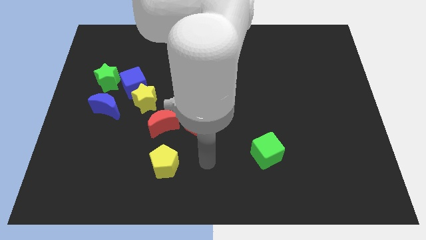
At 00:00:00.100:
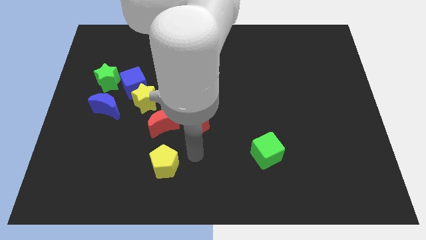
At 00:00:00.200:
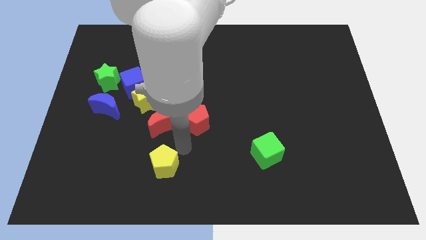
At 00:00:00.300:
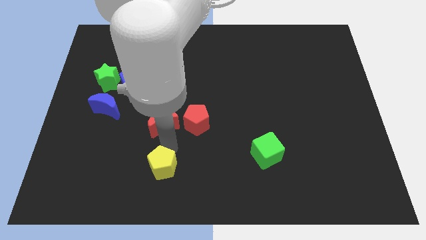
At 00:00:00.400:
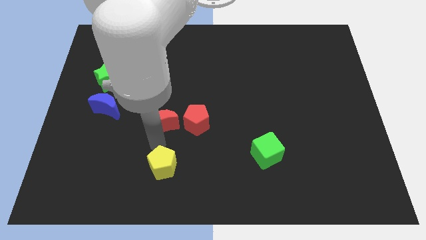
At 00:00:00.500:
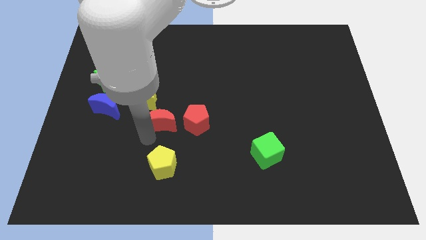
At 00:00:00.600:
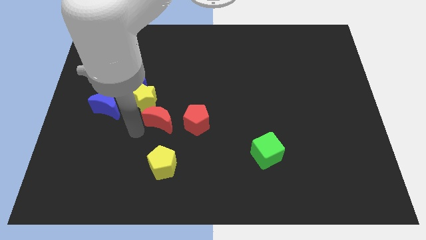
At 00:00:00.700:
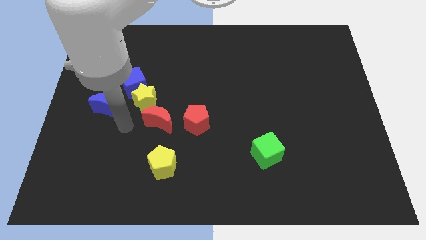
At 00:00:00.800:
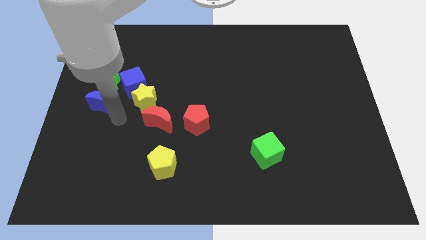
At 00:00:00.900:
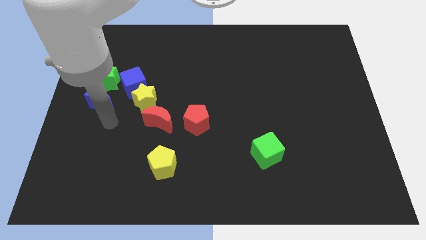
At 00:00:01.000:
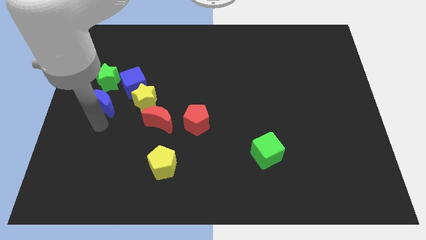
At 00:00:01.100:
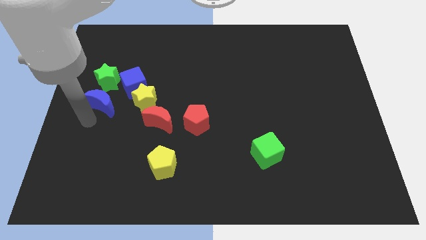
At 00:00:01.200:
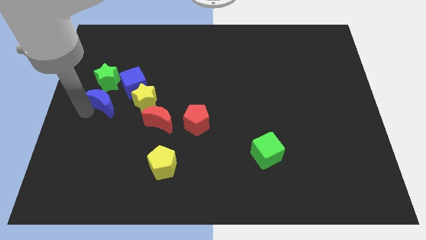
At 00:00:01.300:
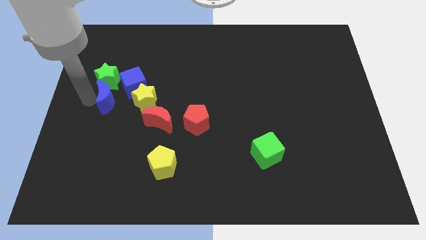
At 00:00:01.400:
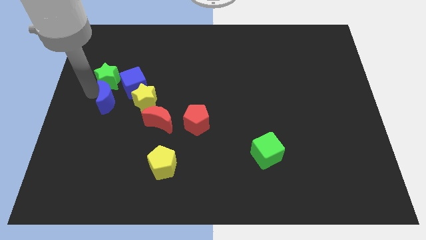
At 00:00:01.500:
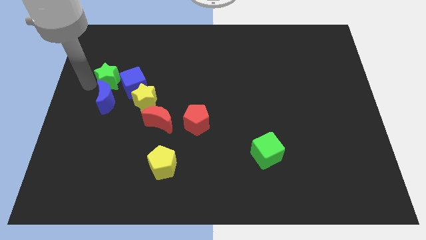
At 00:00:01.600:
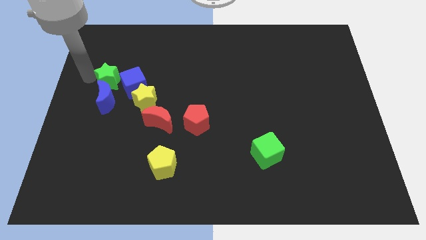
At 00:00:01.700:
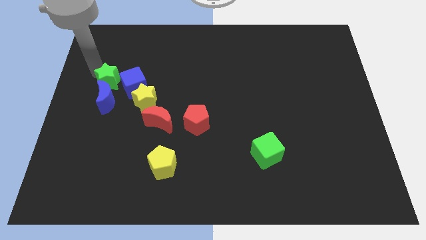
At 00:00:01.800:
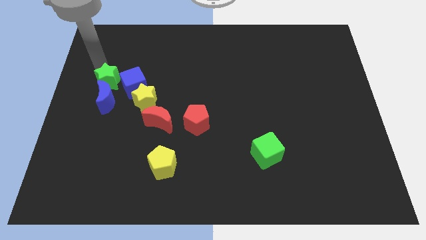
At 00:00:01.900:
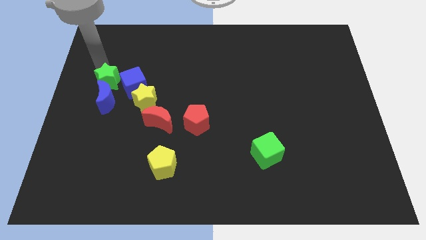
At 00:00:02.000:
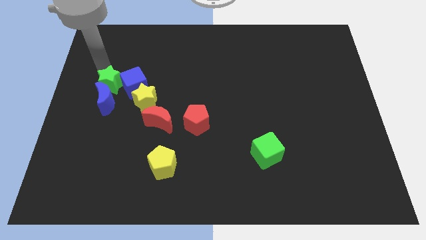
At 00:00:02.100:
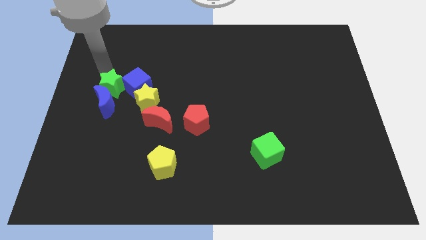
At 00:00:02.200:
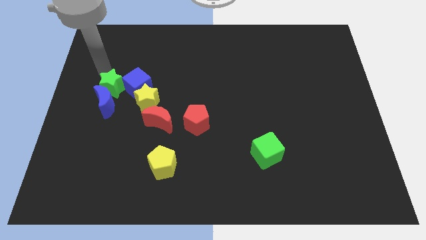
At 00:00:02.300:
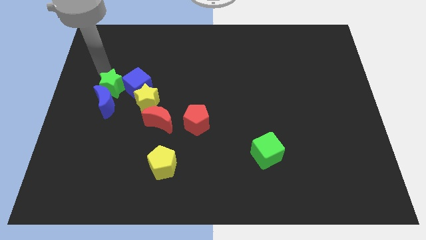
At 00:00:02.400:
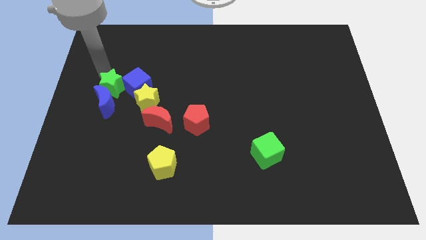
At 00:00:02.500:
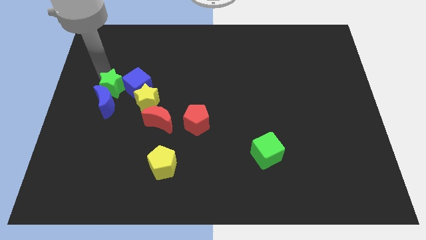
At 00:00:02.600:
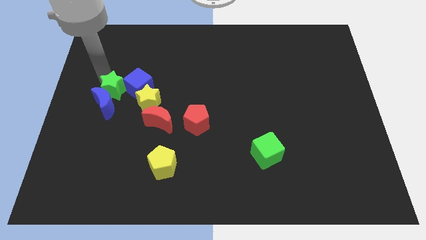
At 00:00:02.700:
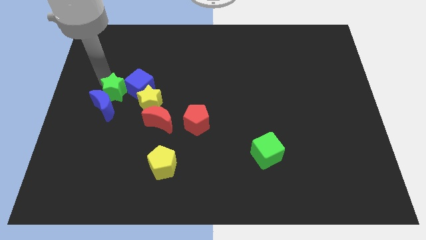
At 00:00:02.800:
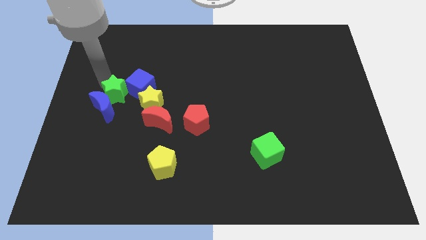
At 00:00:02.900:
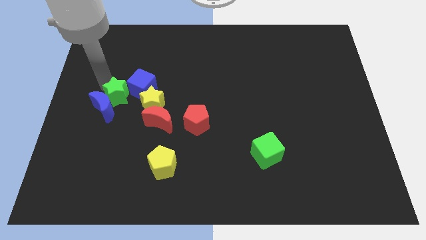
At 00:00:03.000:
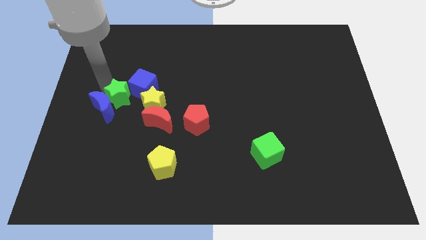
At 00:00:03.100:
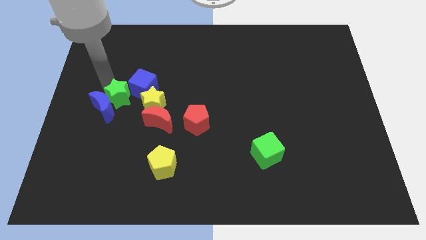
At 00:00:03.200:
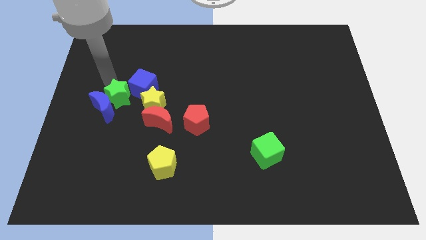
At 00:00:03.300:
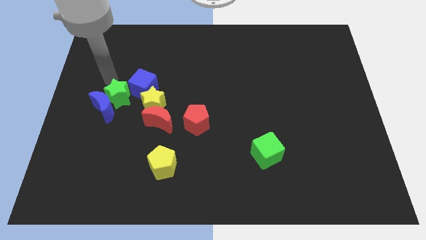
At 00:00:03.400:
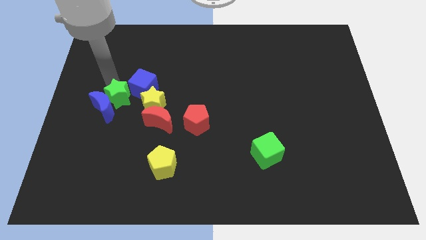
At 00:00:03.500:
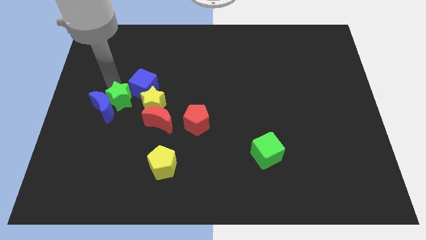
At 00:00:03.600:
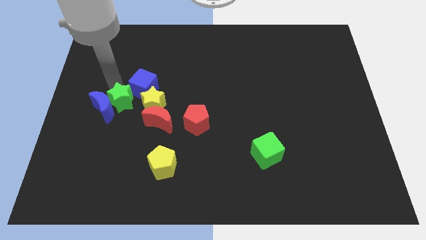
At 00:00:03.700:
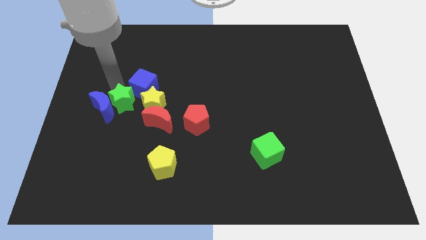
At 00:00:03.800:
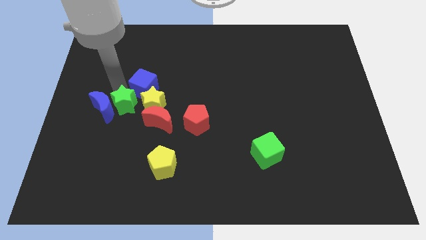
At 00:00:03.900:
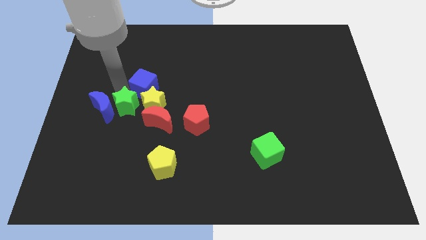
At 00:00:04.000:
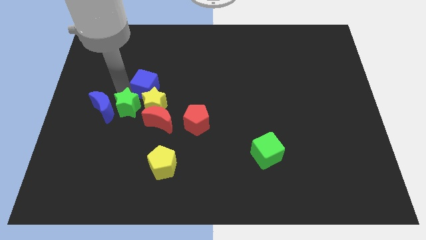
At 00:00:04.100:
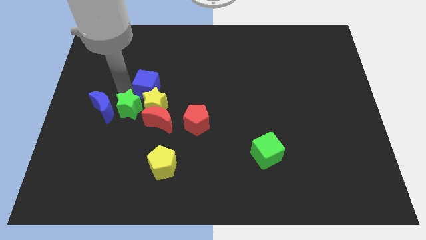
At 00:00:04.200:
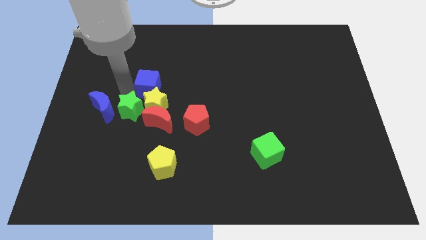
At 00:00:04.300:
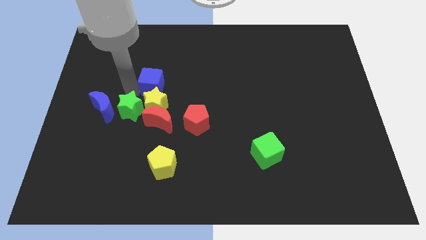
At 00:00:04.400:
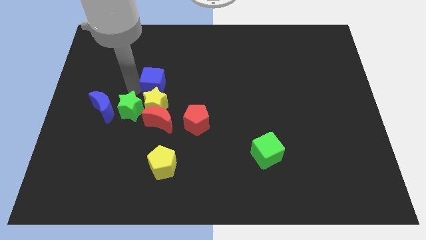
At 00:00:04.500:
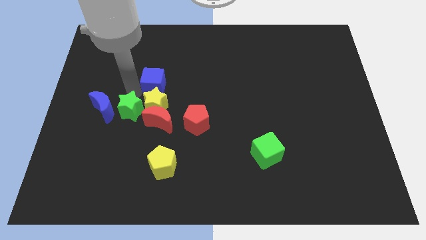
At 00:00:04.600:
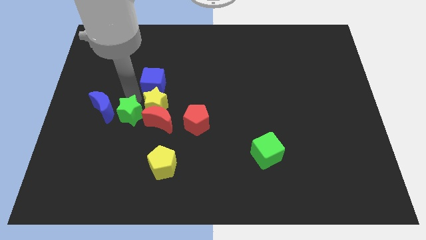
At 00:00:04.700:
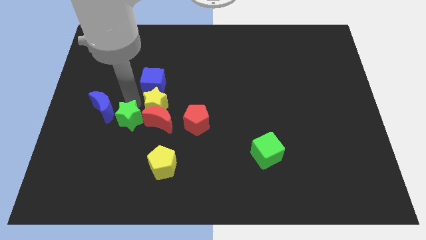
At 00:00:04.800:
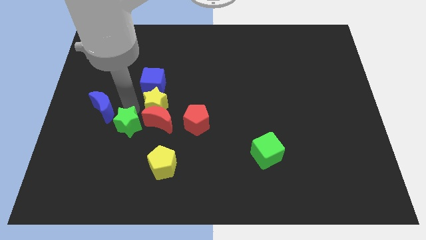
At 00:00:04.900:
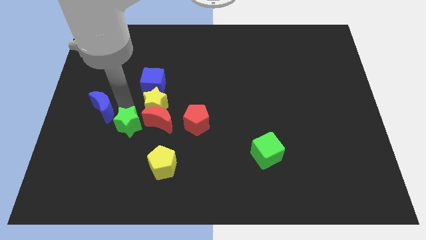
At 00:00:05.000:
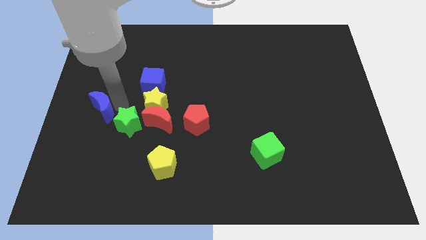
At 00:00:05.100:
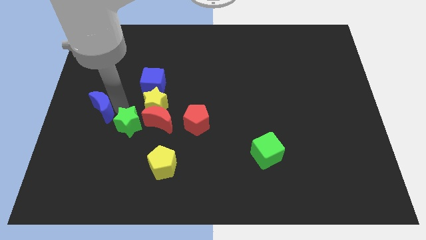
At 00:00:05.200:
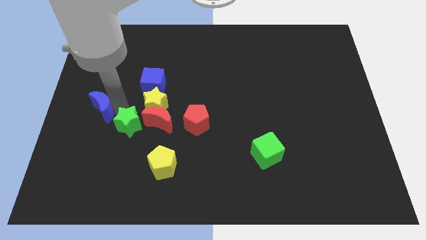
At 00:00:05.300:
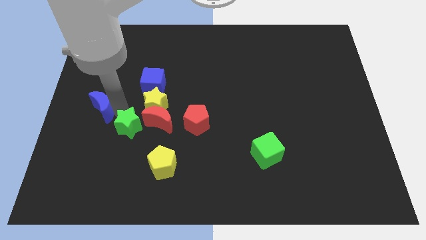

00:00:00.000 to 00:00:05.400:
slide the green star to the top left of the yellow pentagon

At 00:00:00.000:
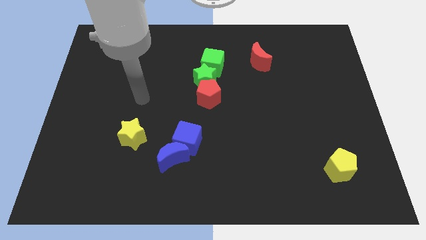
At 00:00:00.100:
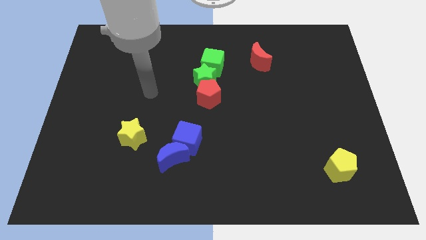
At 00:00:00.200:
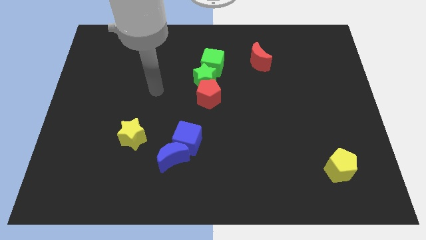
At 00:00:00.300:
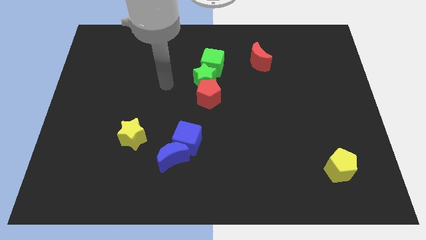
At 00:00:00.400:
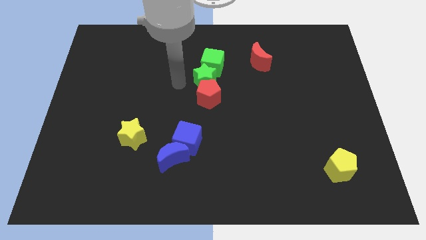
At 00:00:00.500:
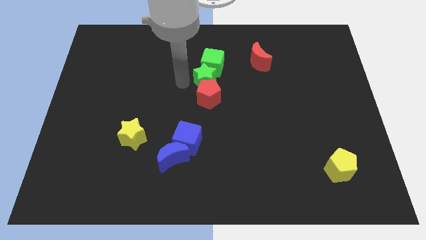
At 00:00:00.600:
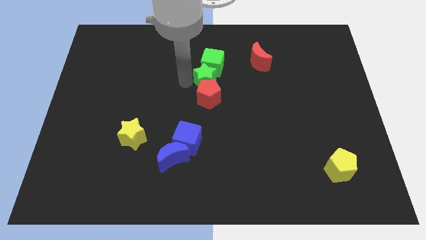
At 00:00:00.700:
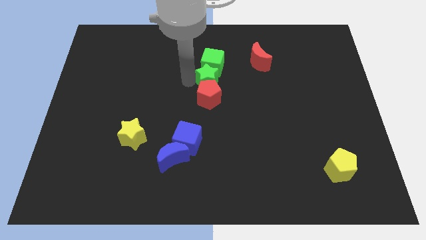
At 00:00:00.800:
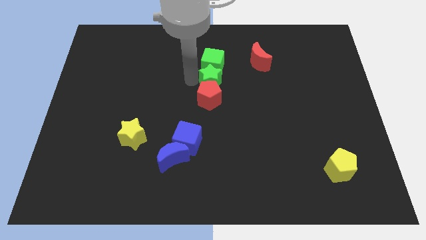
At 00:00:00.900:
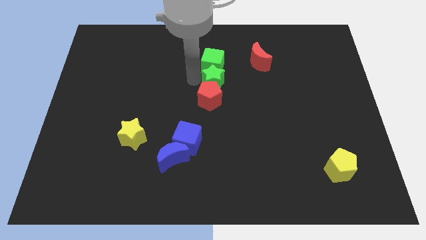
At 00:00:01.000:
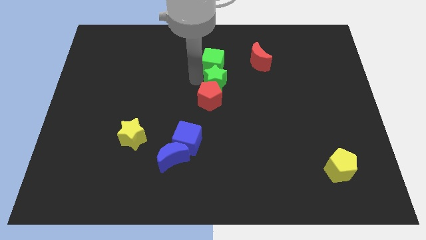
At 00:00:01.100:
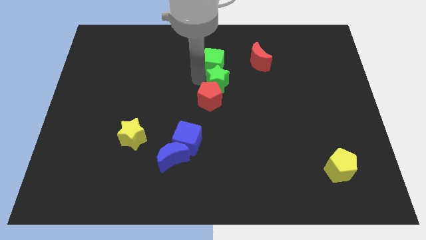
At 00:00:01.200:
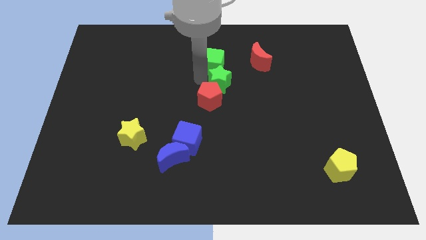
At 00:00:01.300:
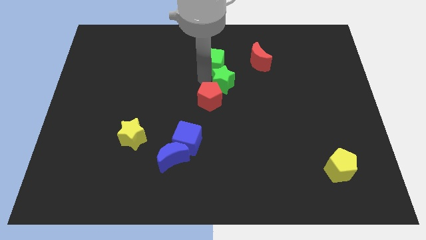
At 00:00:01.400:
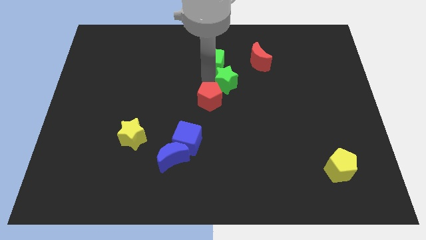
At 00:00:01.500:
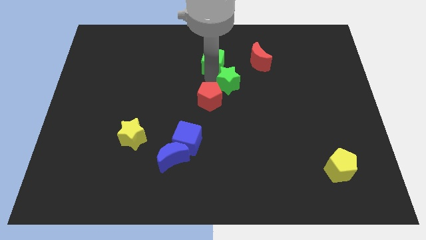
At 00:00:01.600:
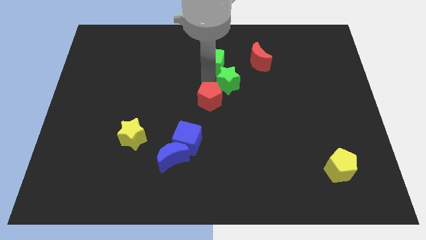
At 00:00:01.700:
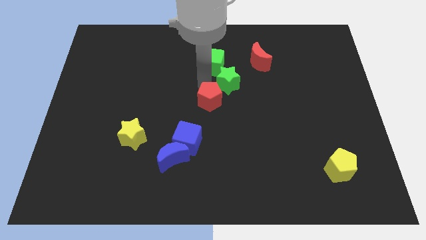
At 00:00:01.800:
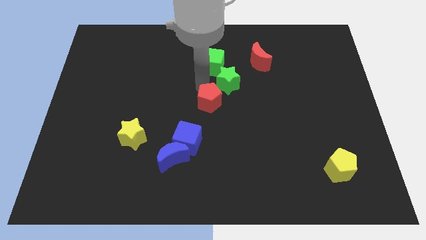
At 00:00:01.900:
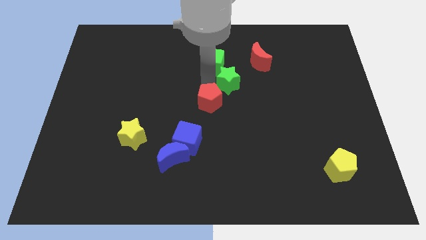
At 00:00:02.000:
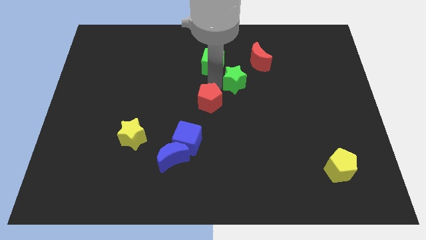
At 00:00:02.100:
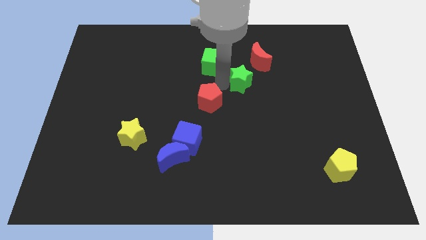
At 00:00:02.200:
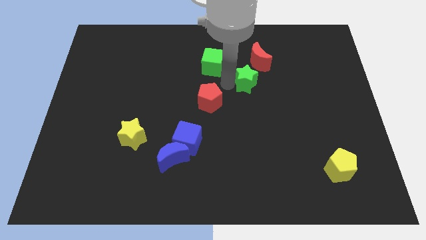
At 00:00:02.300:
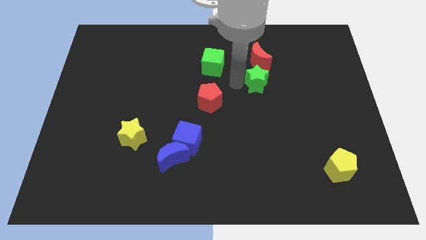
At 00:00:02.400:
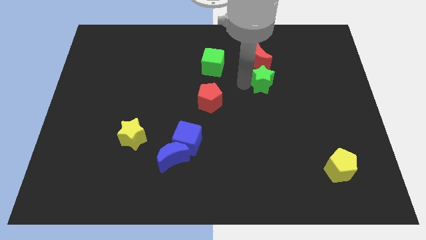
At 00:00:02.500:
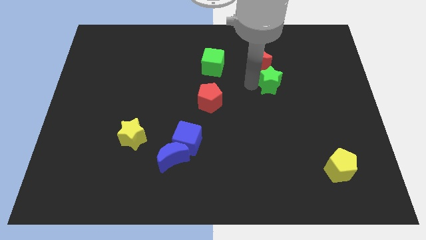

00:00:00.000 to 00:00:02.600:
push the green star to the bottom right side of the red moon
